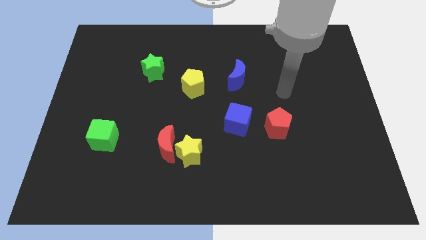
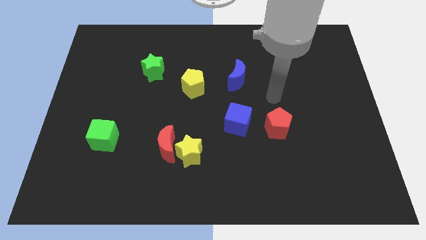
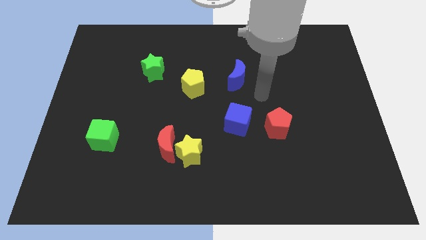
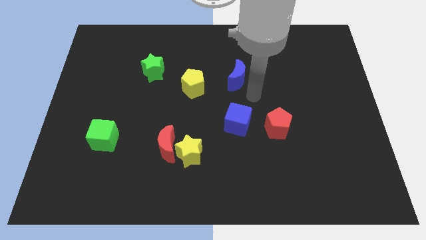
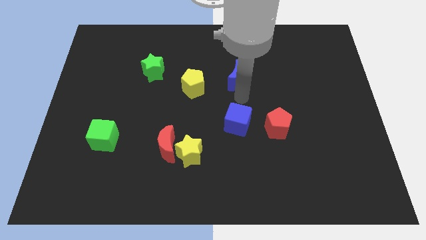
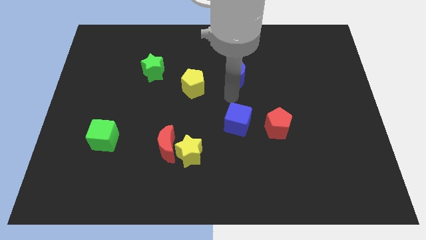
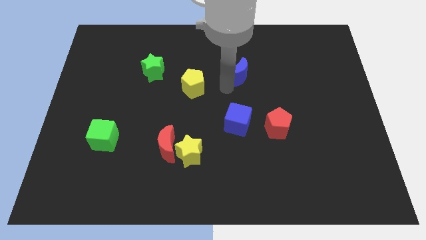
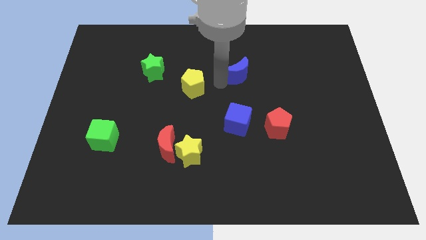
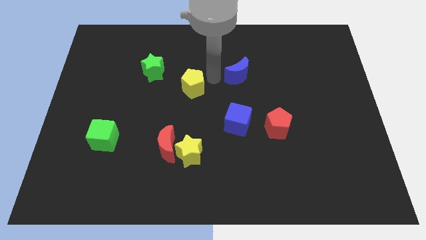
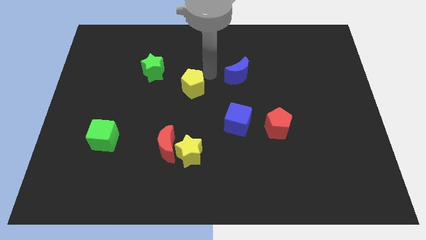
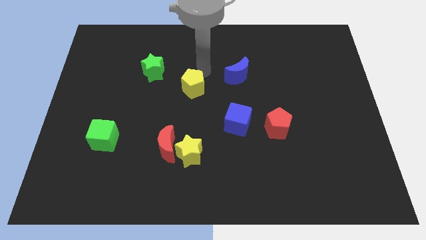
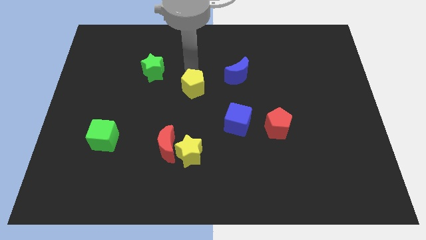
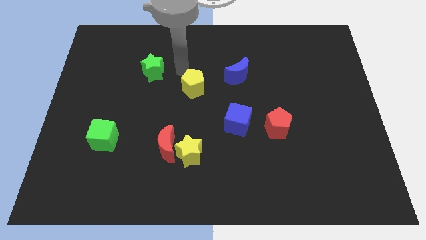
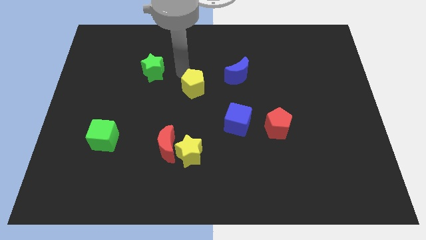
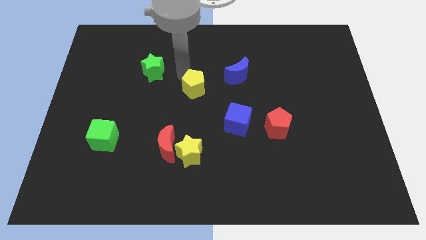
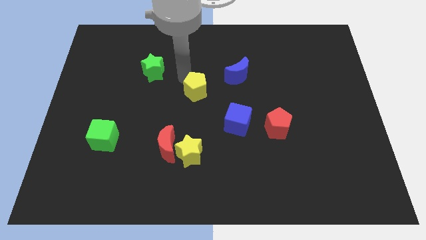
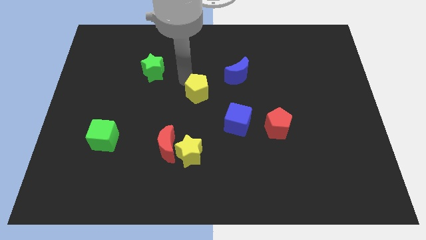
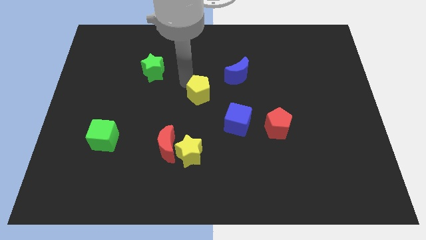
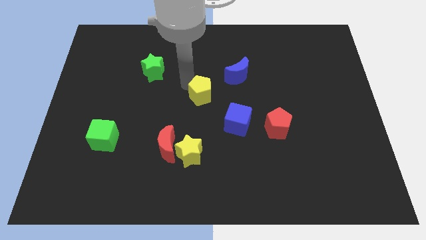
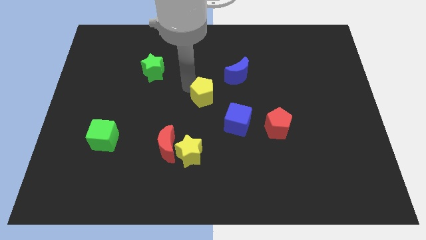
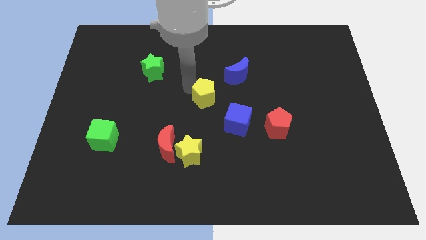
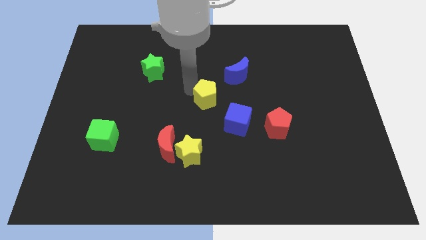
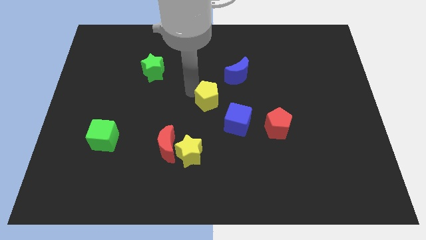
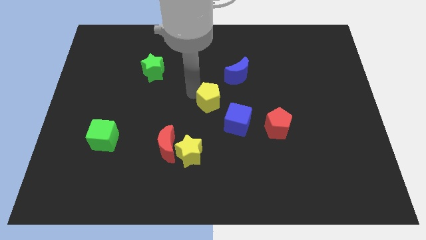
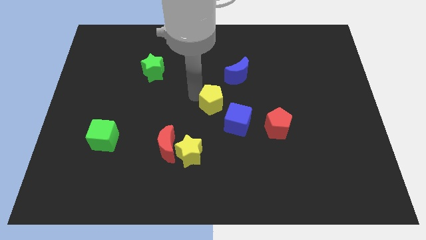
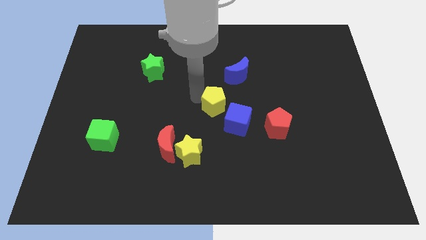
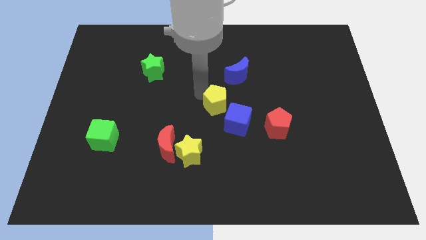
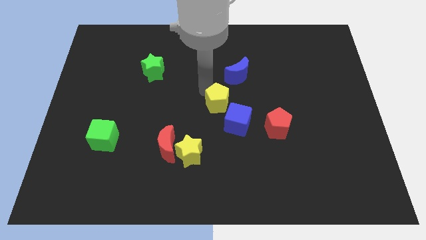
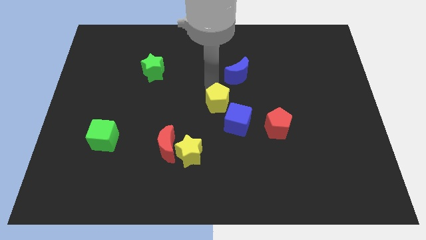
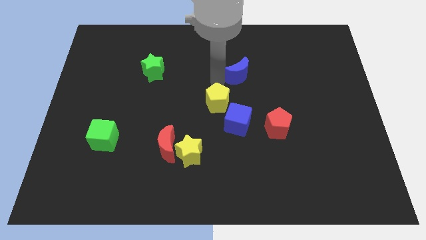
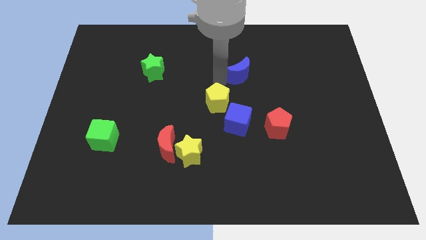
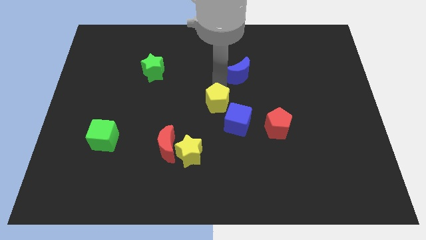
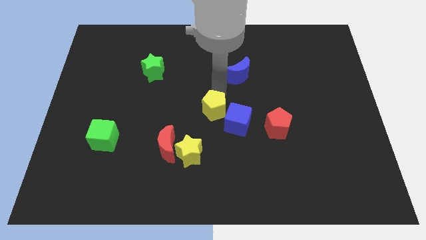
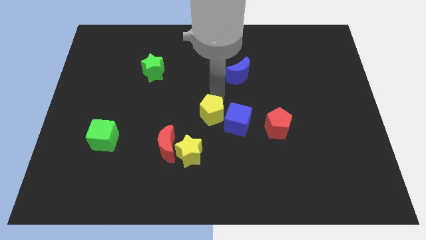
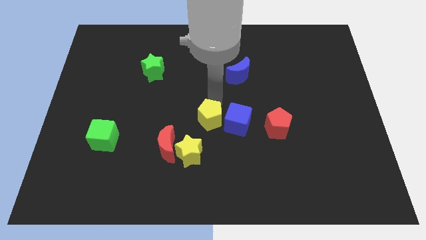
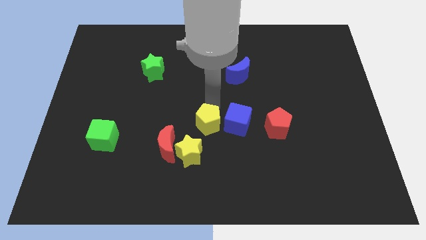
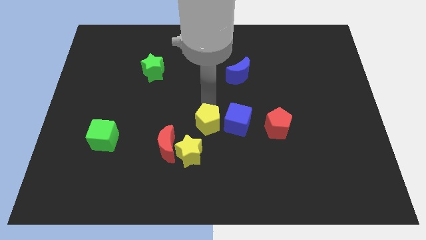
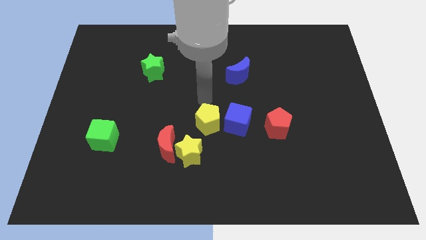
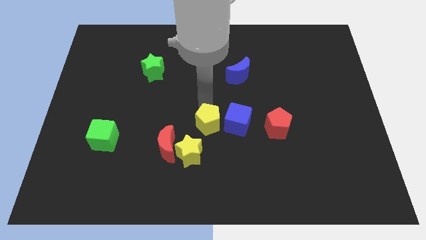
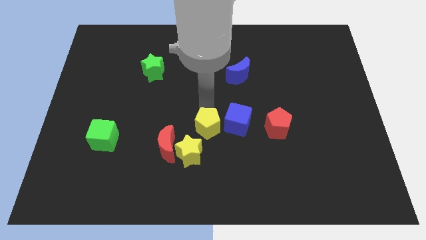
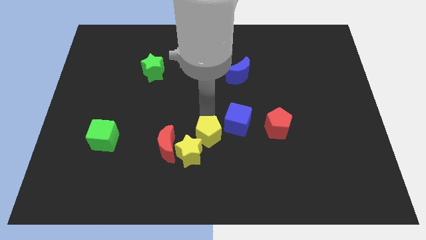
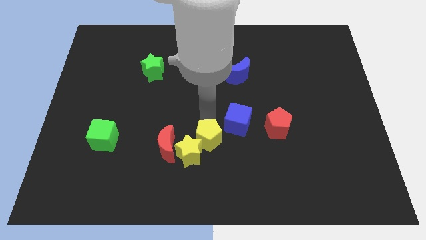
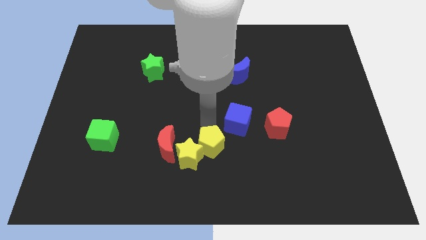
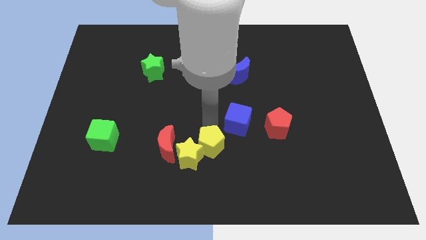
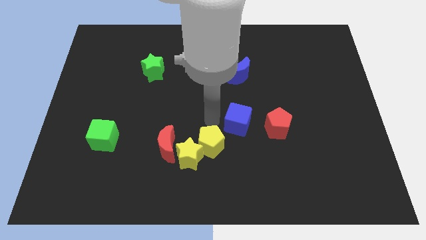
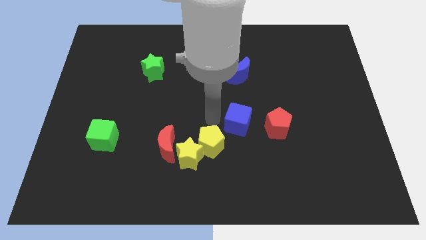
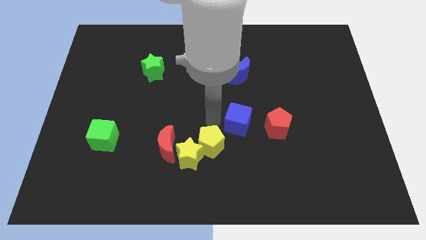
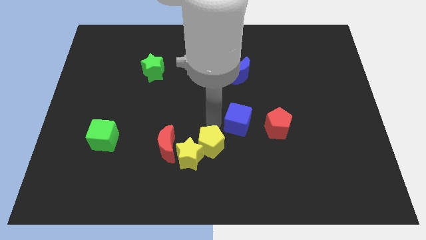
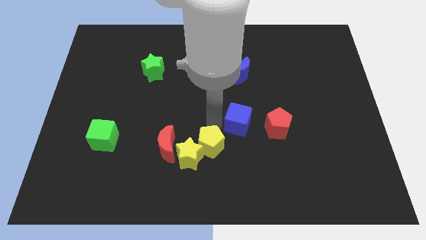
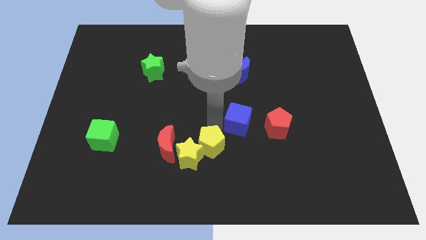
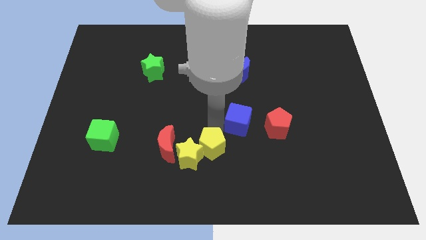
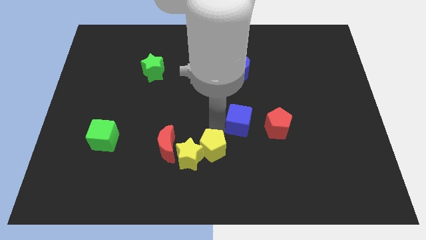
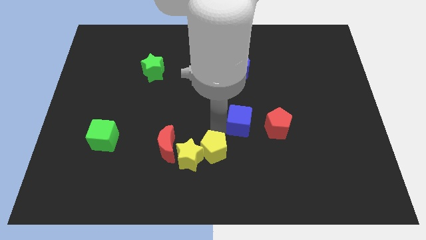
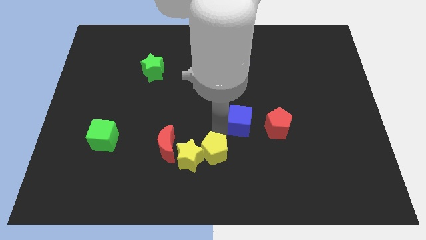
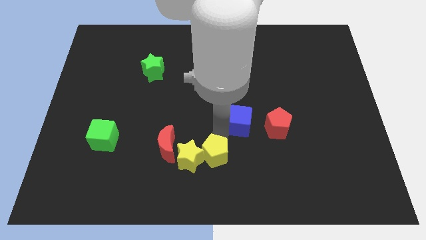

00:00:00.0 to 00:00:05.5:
push the yellow pentagon to the bottom side

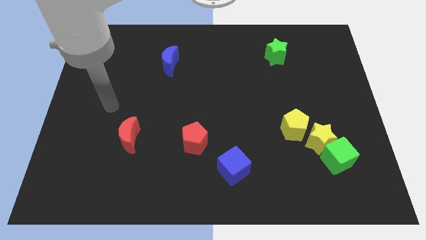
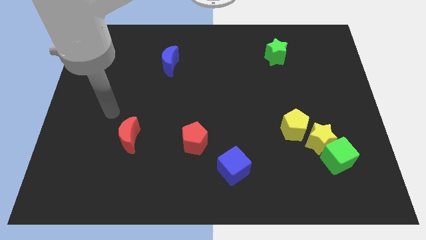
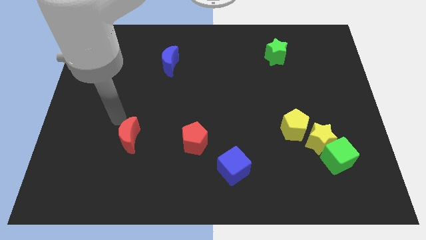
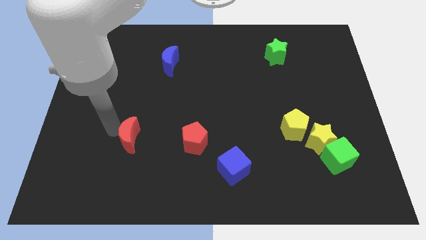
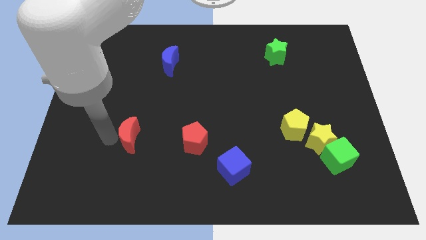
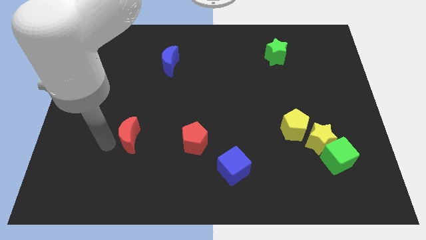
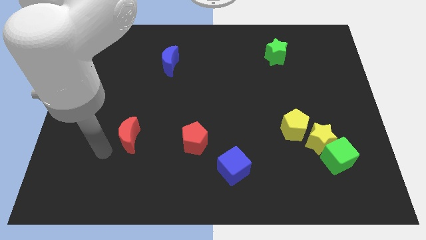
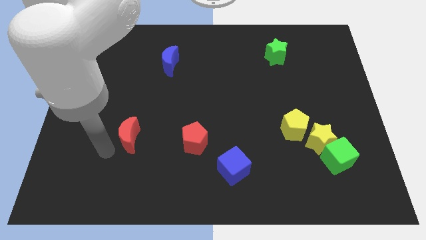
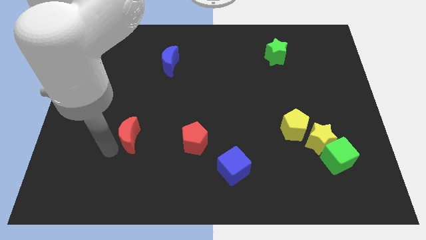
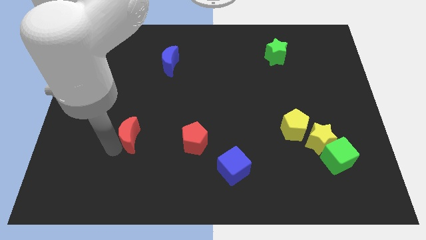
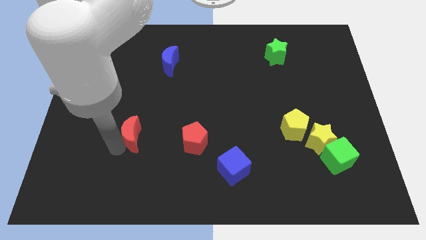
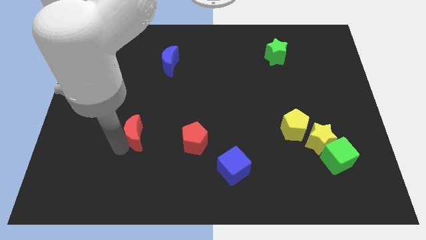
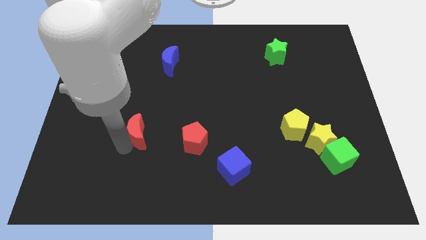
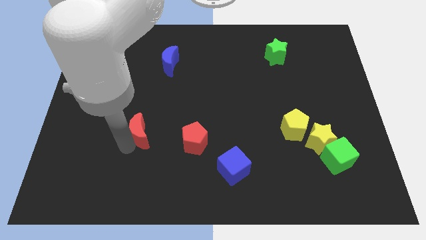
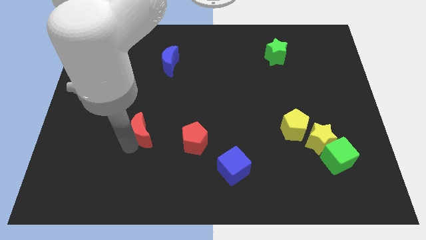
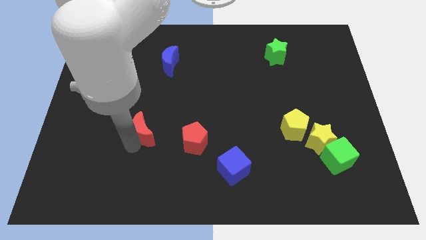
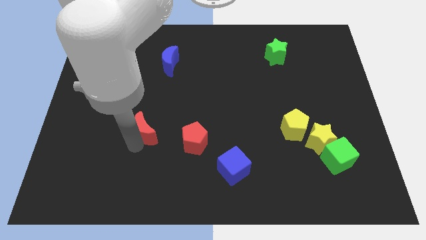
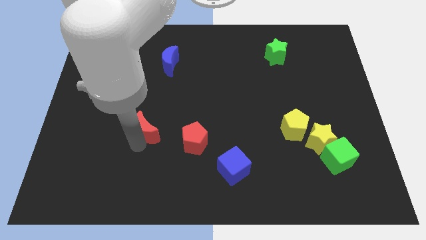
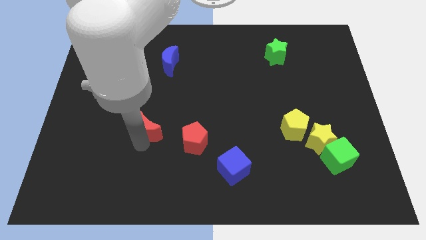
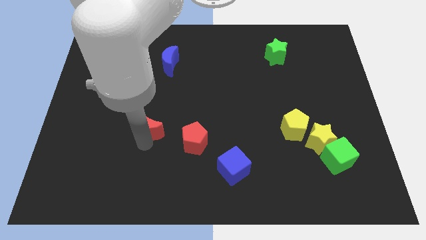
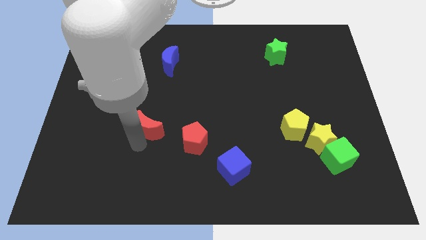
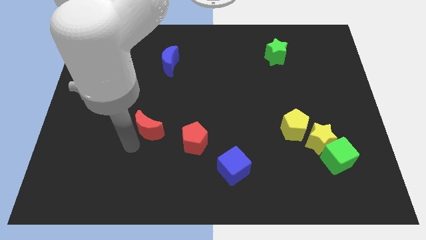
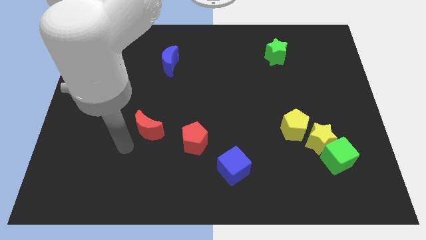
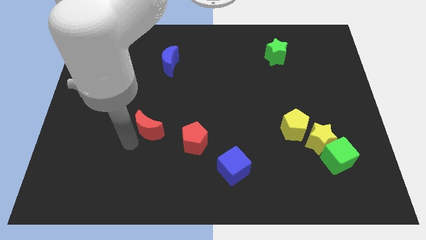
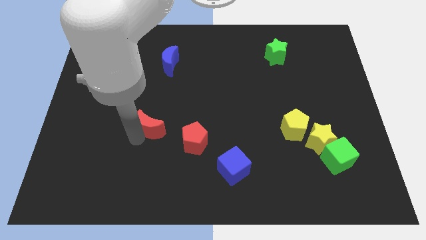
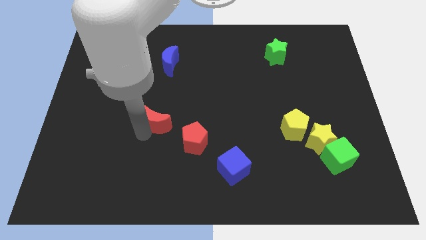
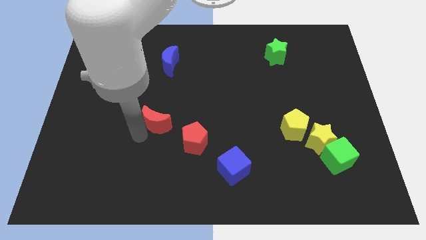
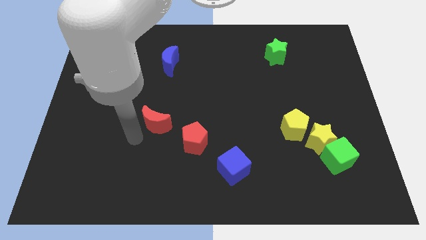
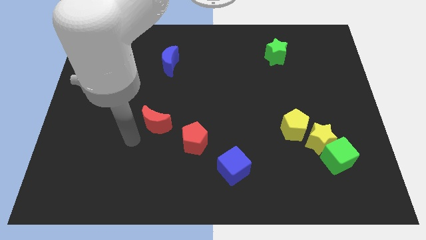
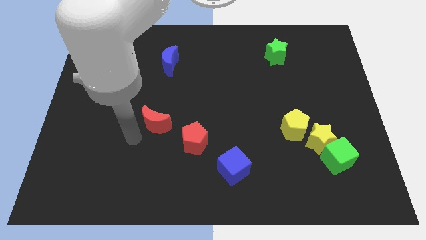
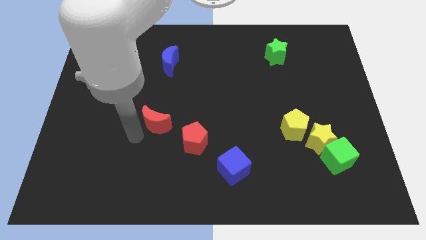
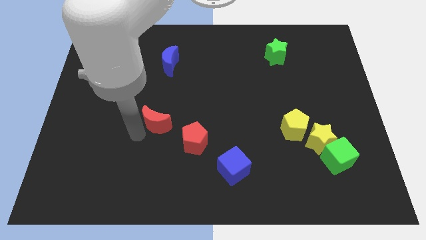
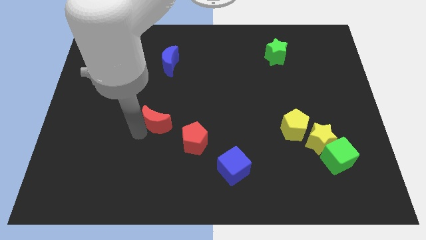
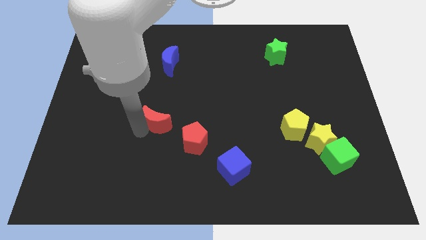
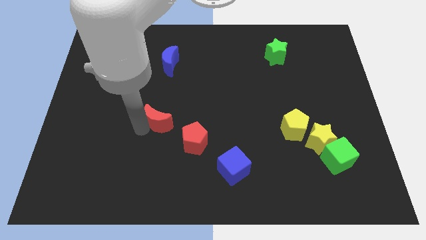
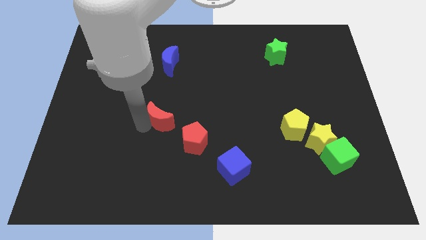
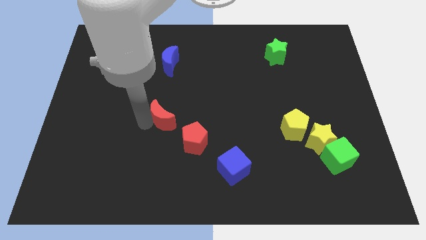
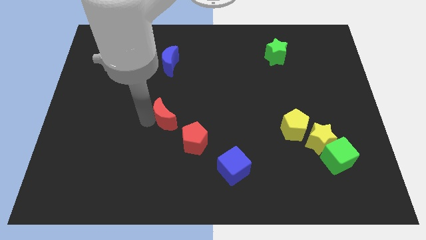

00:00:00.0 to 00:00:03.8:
push the red moon to the middle of the board
